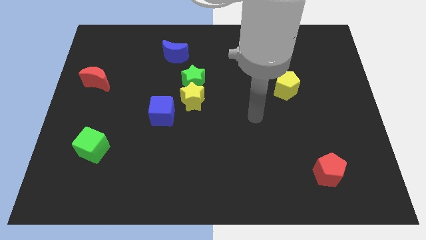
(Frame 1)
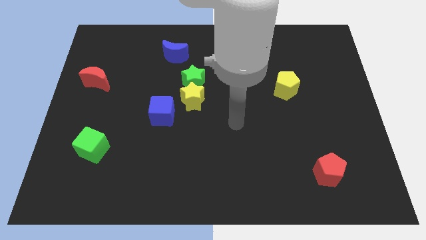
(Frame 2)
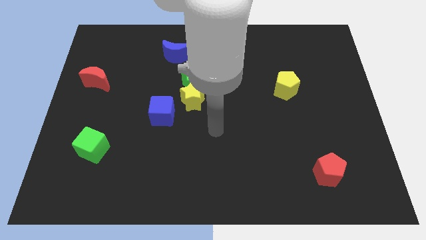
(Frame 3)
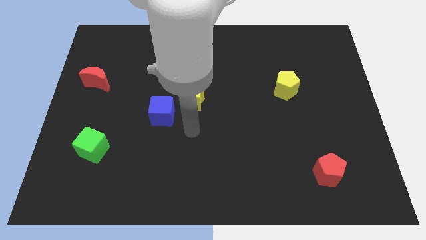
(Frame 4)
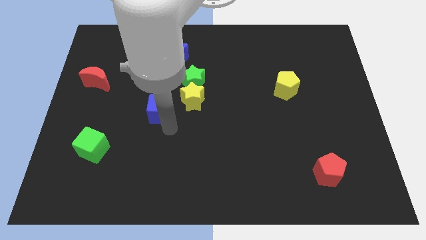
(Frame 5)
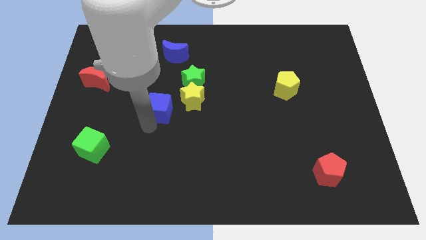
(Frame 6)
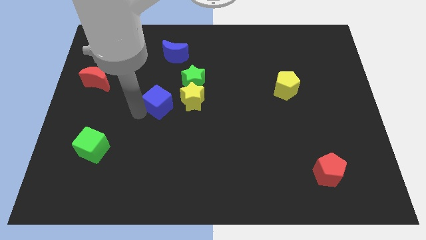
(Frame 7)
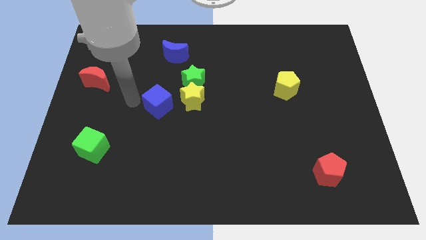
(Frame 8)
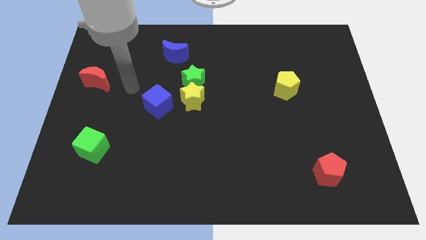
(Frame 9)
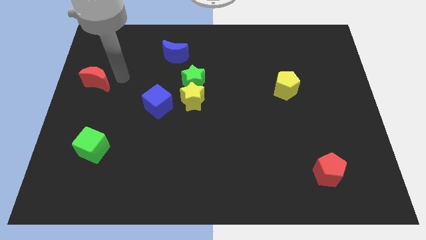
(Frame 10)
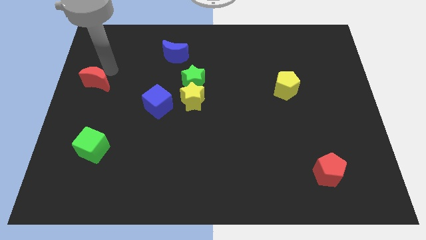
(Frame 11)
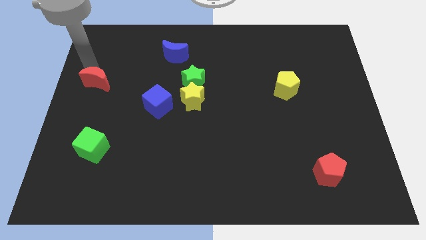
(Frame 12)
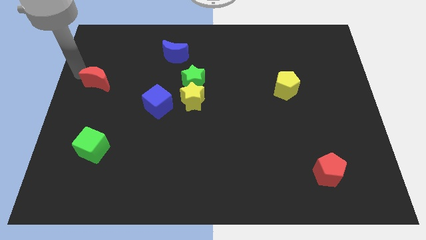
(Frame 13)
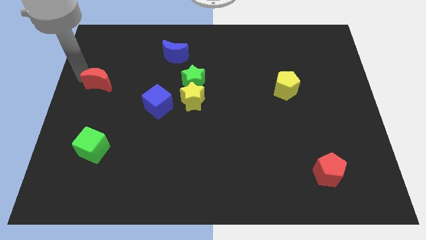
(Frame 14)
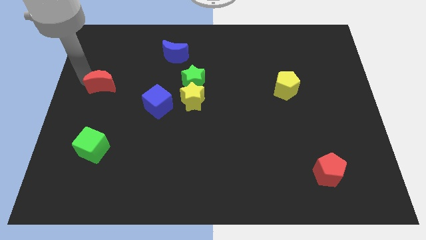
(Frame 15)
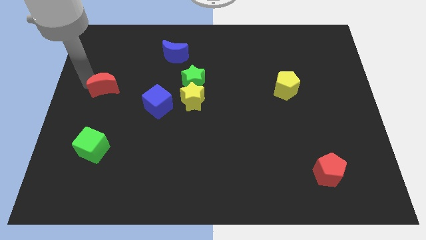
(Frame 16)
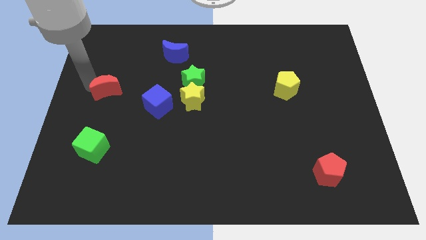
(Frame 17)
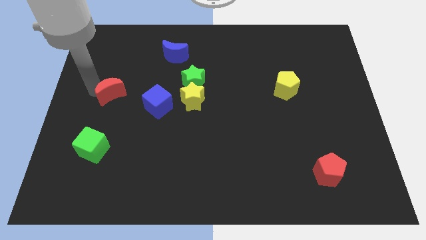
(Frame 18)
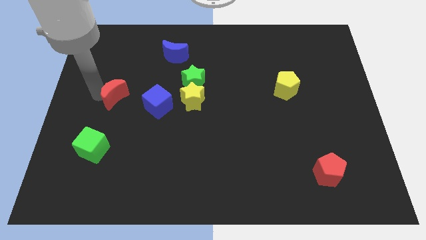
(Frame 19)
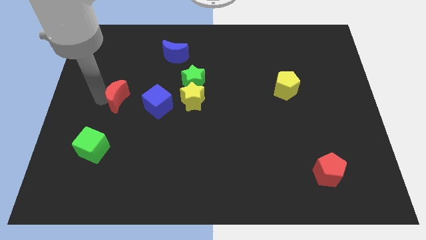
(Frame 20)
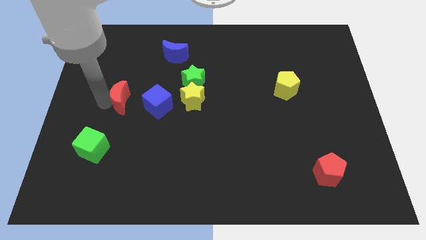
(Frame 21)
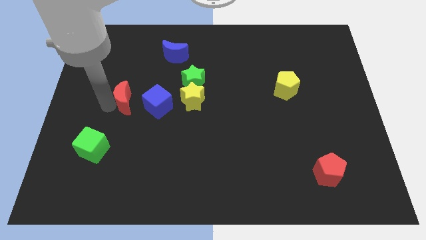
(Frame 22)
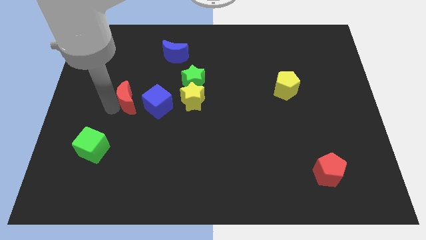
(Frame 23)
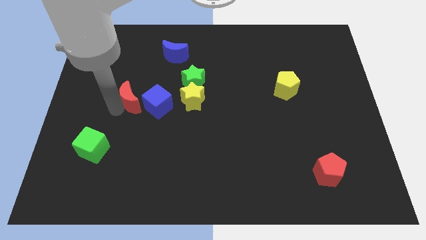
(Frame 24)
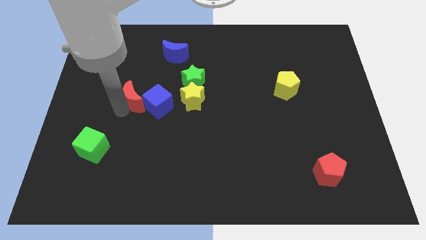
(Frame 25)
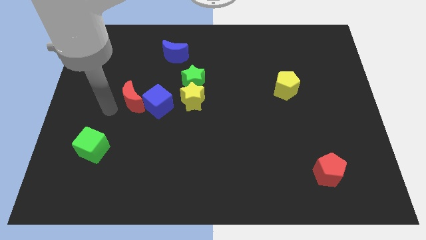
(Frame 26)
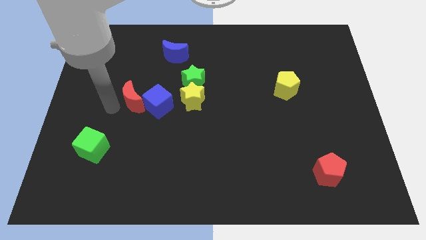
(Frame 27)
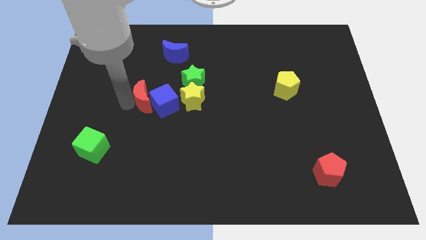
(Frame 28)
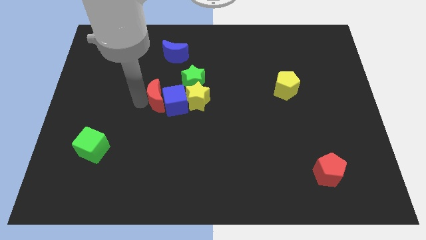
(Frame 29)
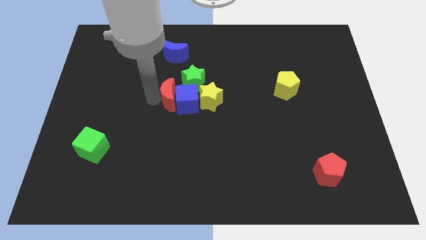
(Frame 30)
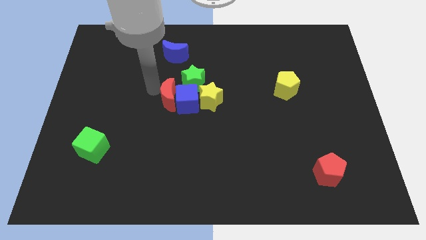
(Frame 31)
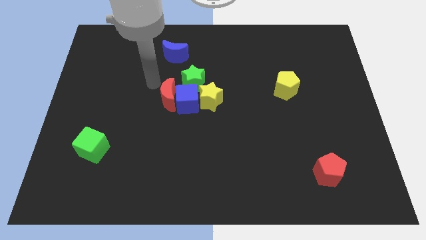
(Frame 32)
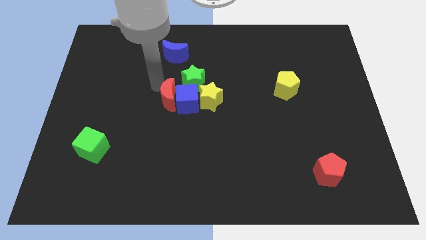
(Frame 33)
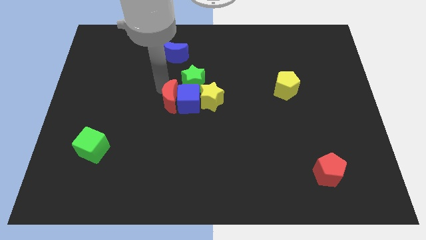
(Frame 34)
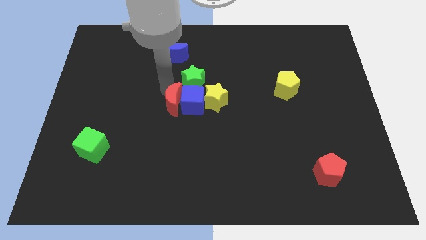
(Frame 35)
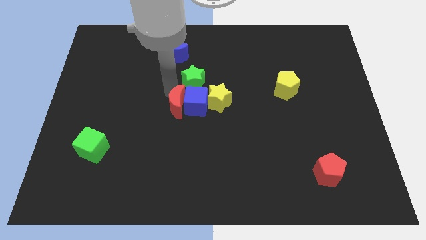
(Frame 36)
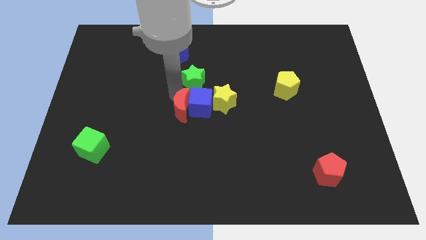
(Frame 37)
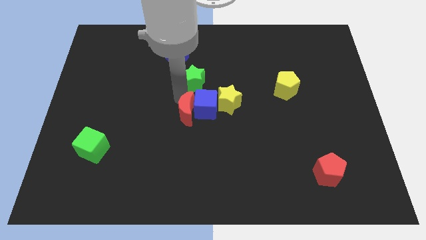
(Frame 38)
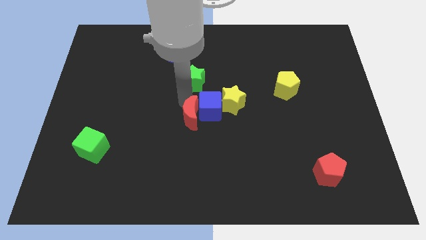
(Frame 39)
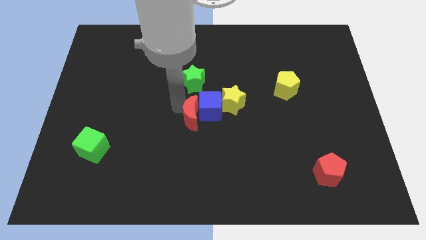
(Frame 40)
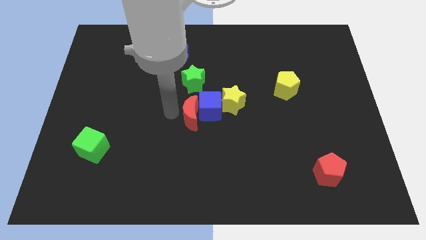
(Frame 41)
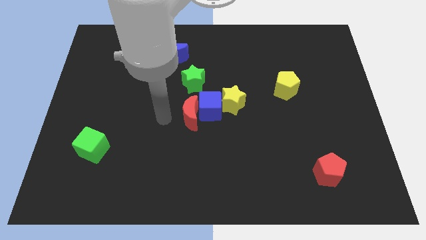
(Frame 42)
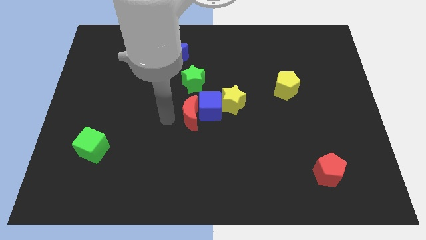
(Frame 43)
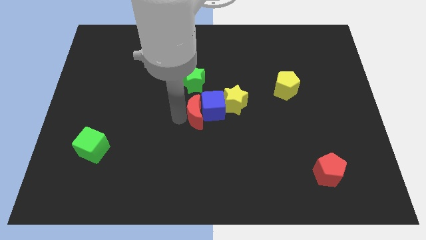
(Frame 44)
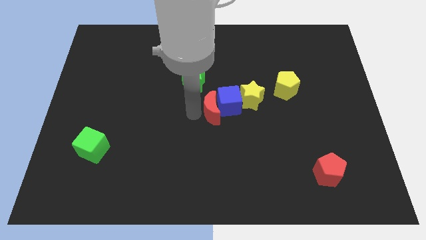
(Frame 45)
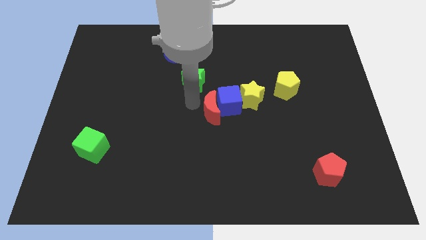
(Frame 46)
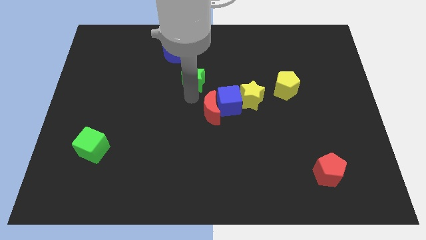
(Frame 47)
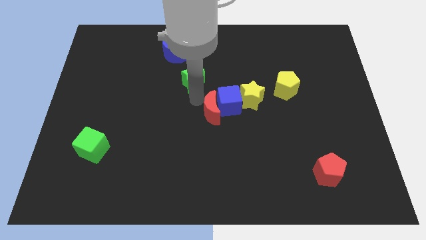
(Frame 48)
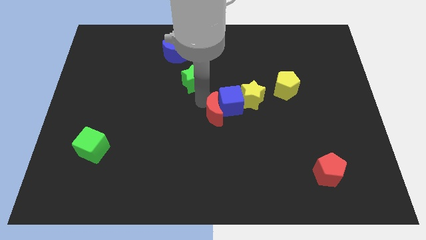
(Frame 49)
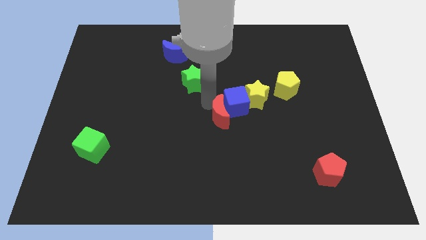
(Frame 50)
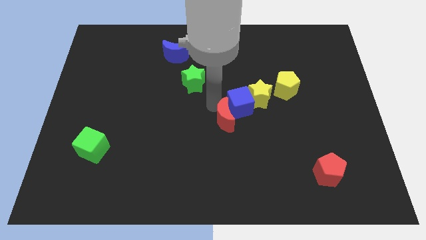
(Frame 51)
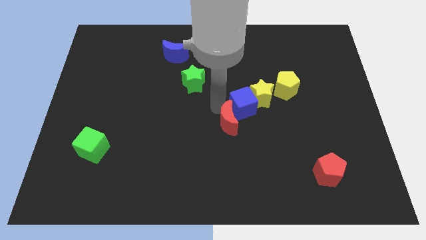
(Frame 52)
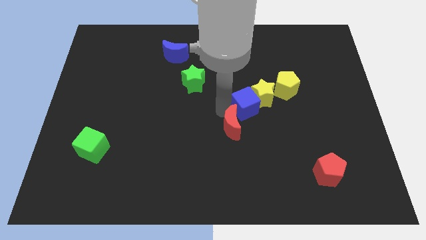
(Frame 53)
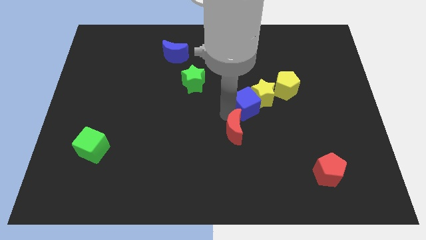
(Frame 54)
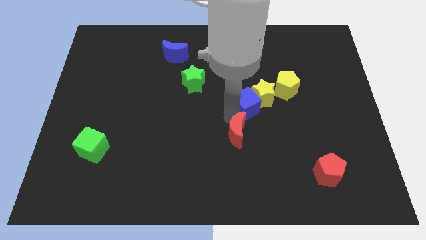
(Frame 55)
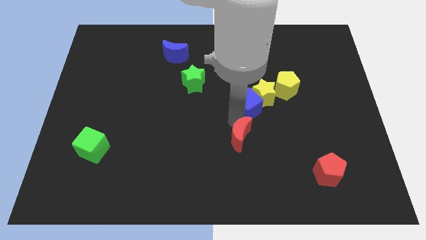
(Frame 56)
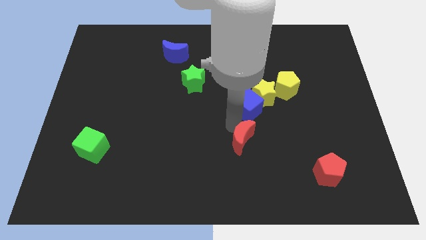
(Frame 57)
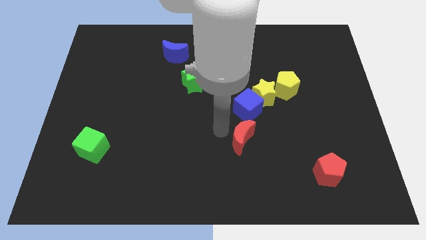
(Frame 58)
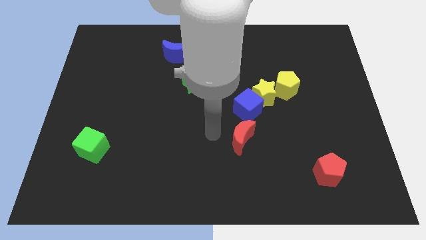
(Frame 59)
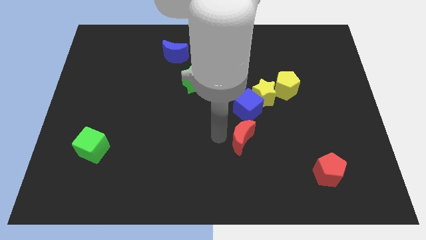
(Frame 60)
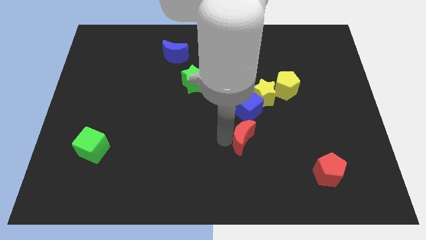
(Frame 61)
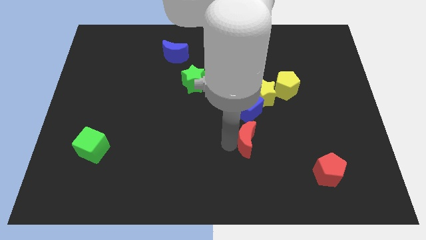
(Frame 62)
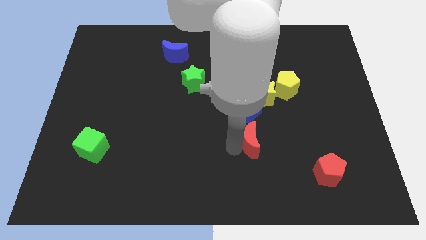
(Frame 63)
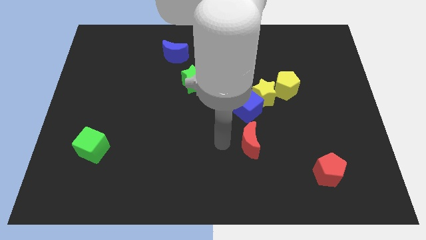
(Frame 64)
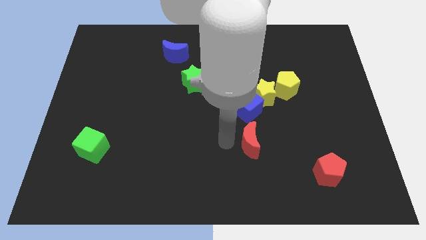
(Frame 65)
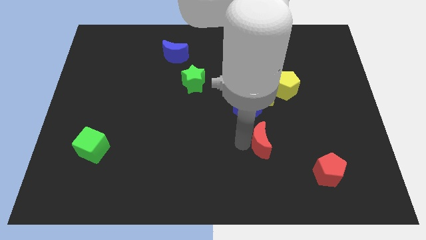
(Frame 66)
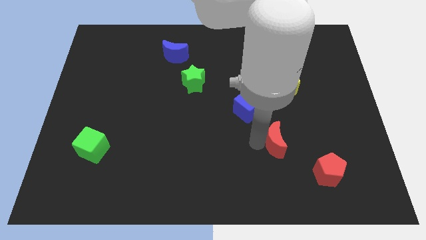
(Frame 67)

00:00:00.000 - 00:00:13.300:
put the red moon to the top left of the red pentagon
